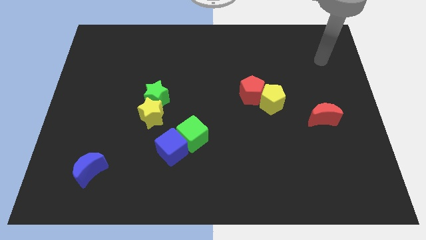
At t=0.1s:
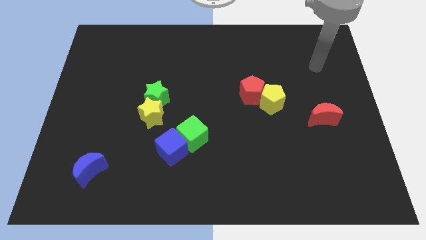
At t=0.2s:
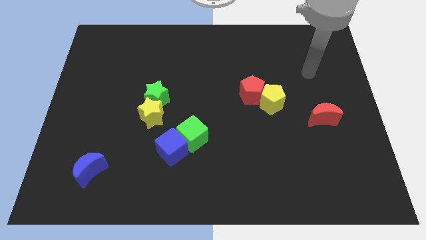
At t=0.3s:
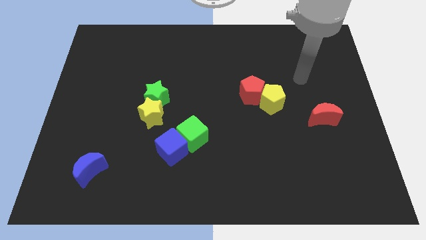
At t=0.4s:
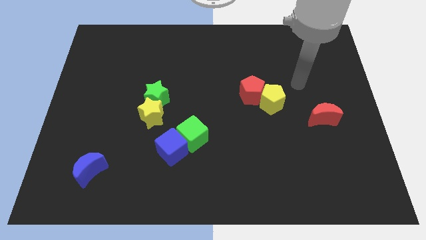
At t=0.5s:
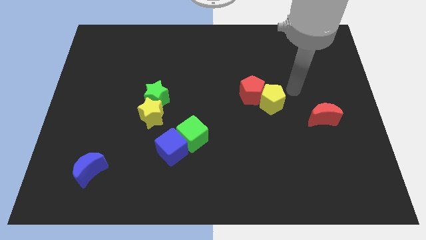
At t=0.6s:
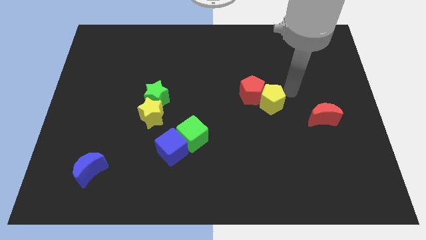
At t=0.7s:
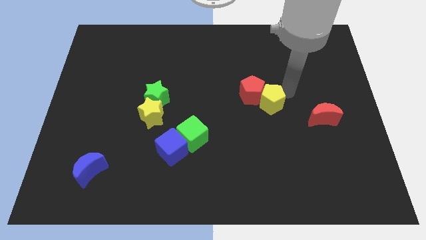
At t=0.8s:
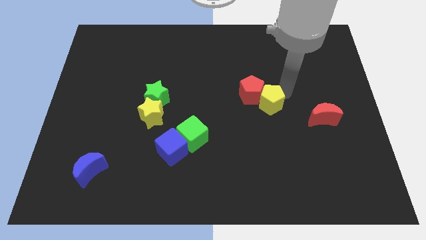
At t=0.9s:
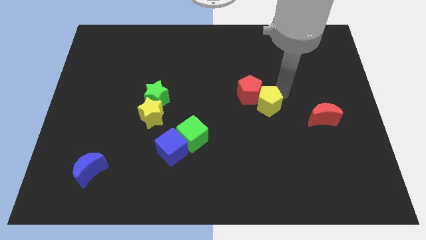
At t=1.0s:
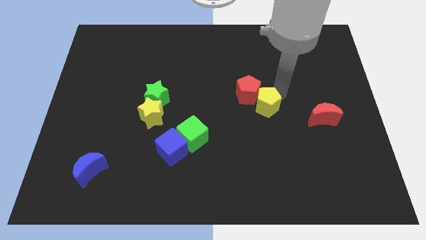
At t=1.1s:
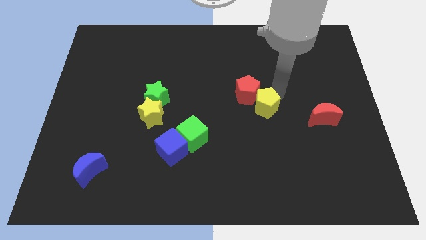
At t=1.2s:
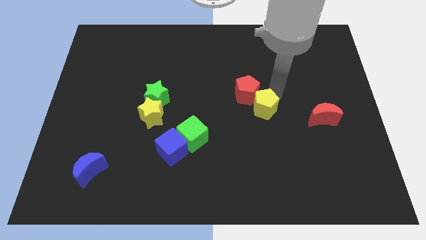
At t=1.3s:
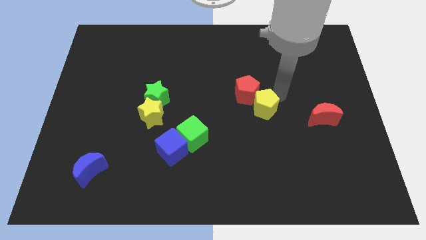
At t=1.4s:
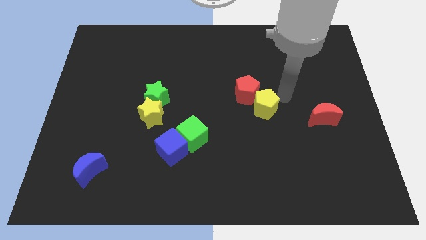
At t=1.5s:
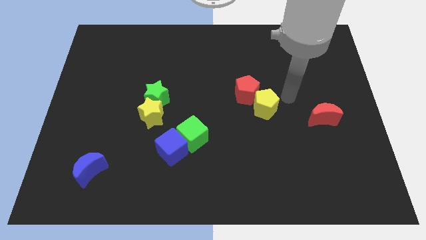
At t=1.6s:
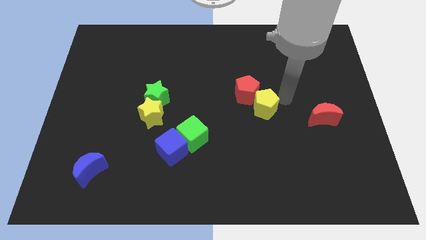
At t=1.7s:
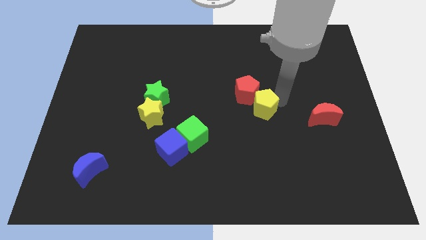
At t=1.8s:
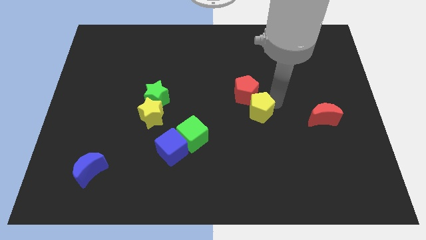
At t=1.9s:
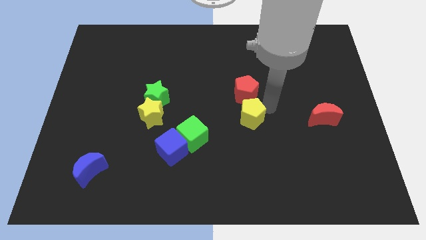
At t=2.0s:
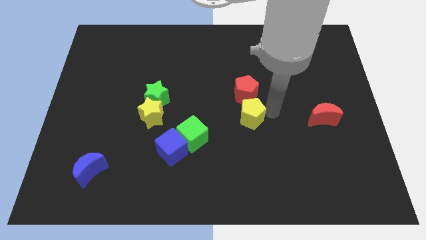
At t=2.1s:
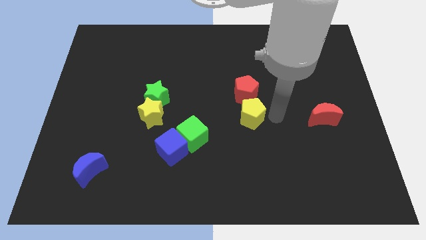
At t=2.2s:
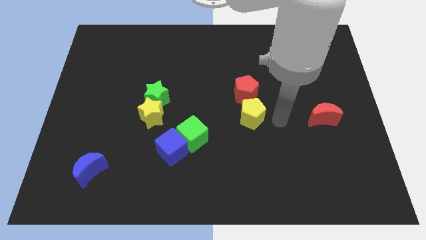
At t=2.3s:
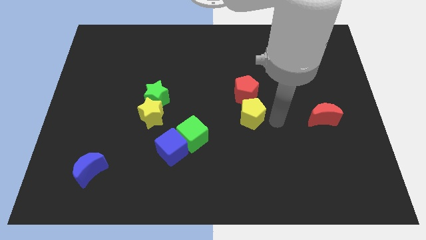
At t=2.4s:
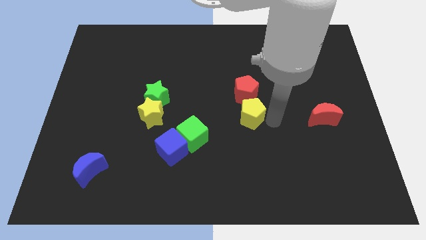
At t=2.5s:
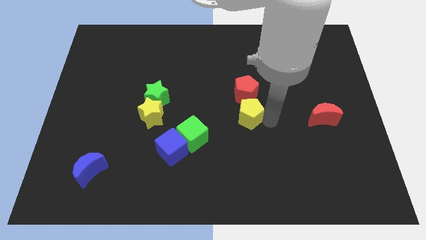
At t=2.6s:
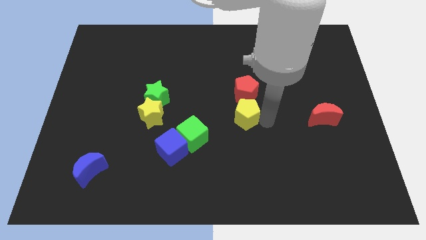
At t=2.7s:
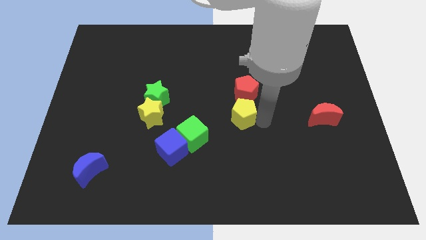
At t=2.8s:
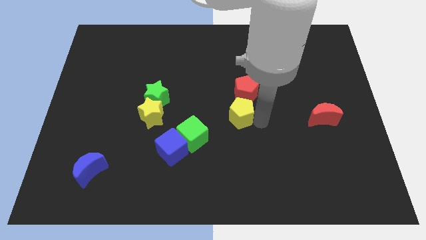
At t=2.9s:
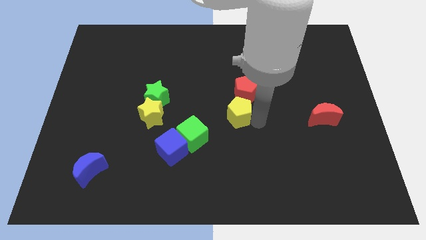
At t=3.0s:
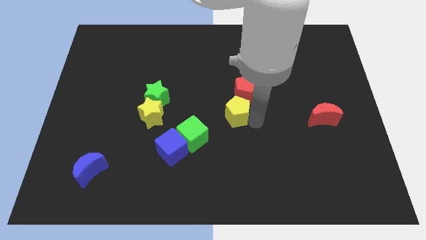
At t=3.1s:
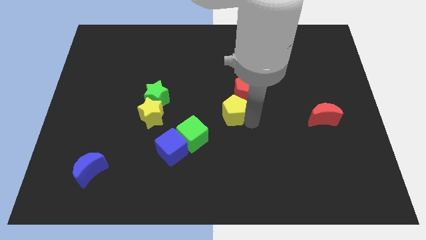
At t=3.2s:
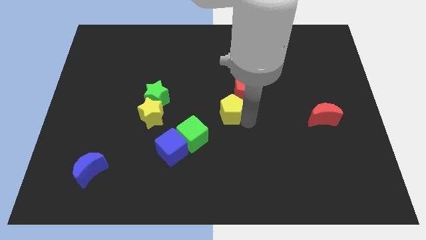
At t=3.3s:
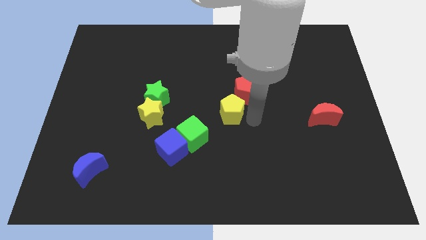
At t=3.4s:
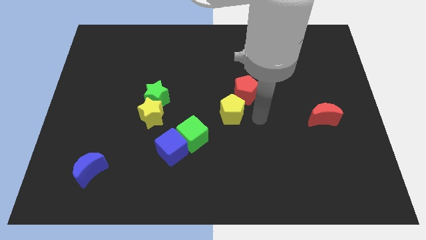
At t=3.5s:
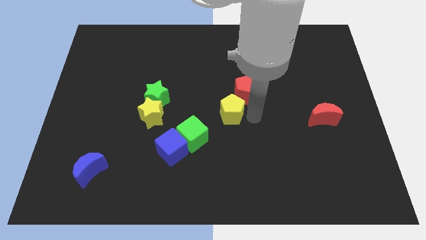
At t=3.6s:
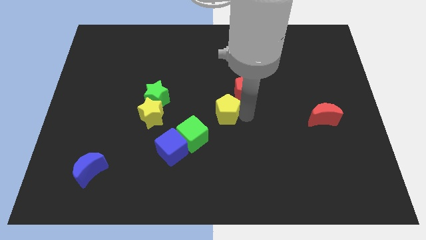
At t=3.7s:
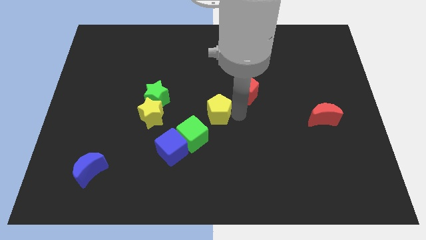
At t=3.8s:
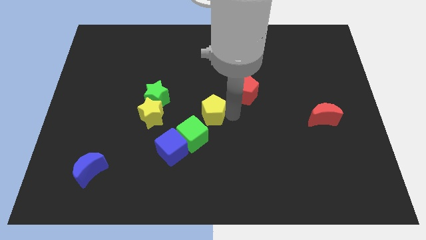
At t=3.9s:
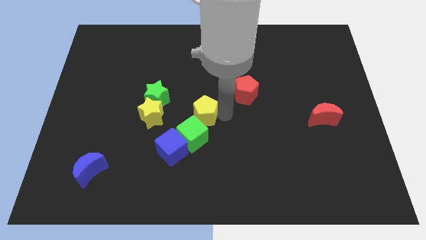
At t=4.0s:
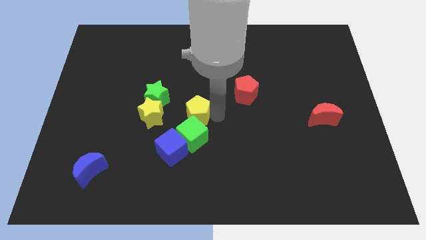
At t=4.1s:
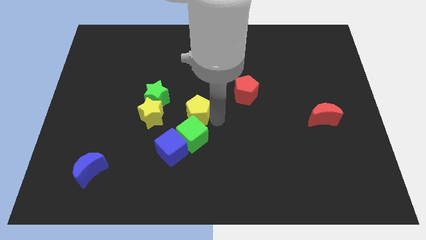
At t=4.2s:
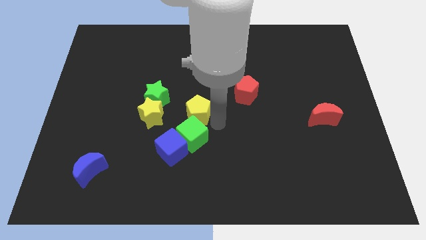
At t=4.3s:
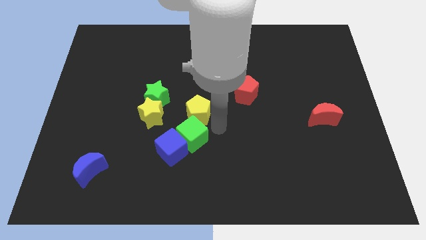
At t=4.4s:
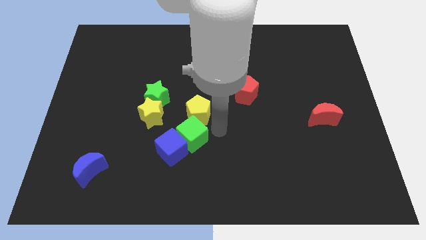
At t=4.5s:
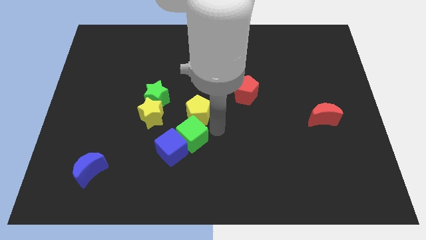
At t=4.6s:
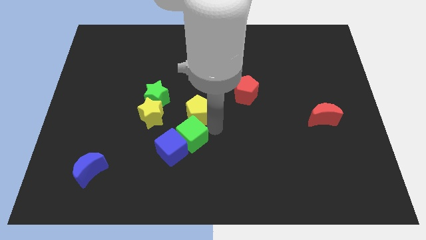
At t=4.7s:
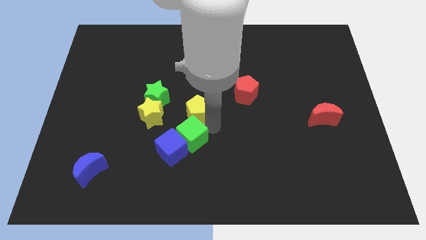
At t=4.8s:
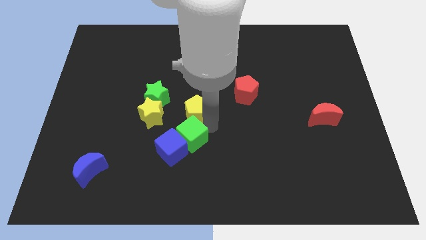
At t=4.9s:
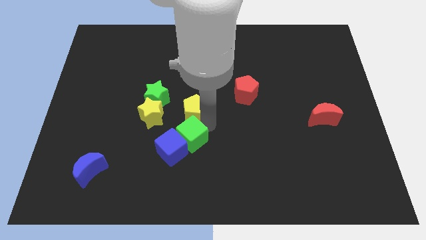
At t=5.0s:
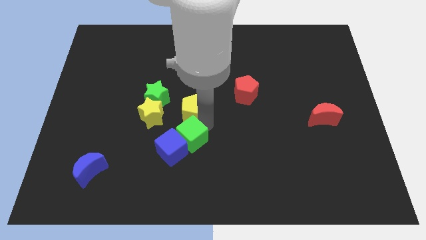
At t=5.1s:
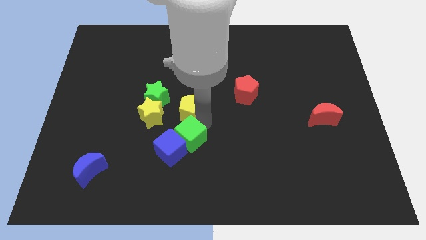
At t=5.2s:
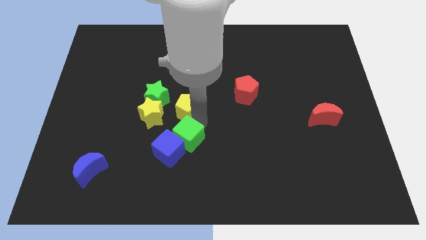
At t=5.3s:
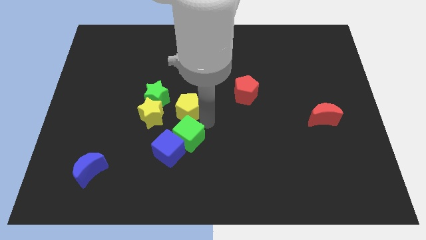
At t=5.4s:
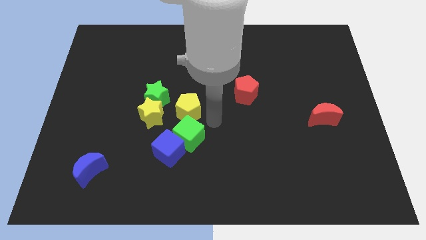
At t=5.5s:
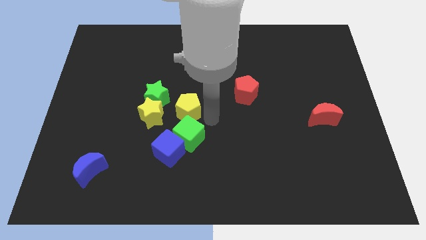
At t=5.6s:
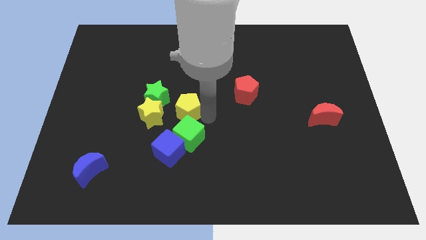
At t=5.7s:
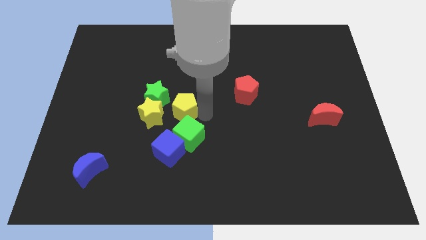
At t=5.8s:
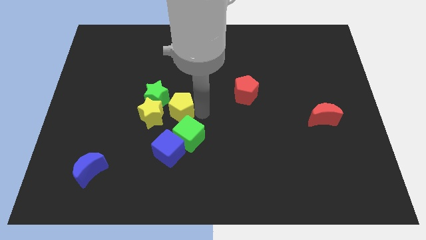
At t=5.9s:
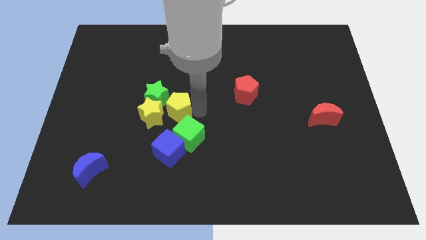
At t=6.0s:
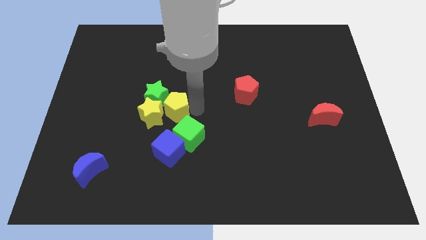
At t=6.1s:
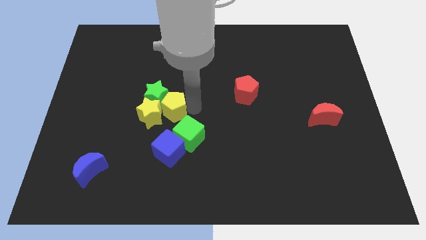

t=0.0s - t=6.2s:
push the yellow pentagon close to the green star

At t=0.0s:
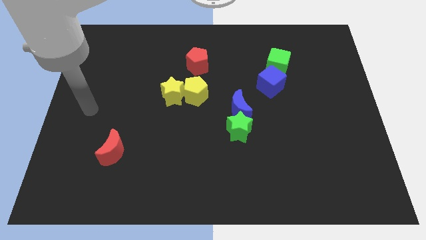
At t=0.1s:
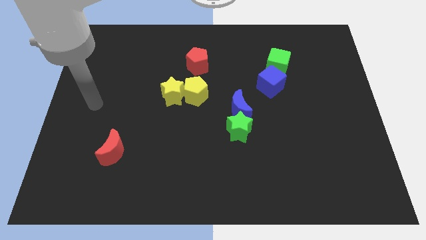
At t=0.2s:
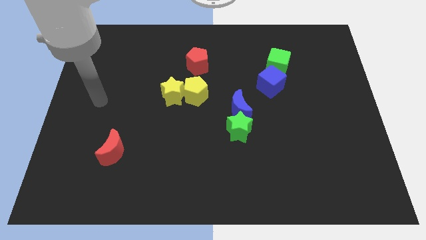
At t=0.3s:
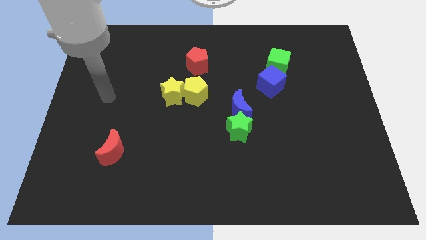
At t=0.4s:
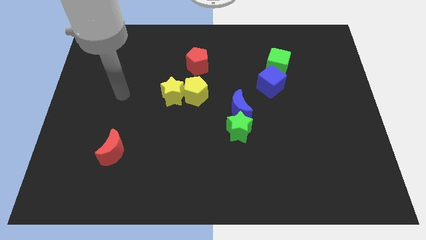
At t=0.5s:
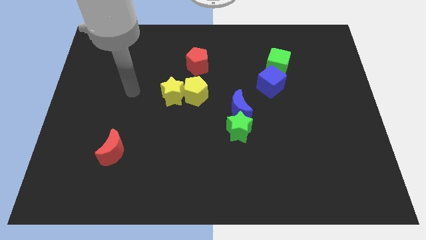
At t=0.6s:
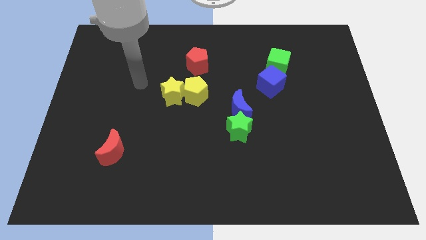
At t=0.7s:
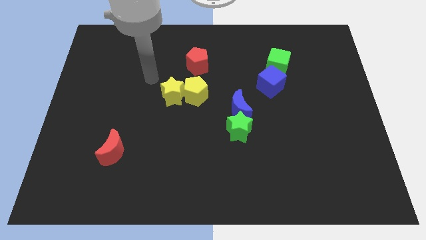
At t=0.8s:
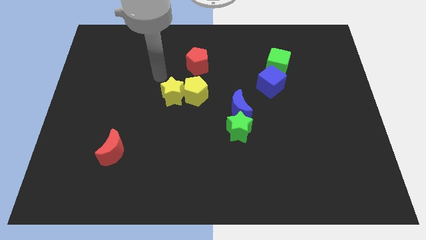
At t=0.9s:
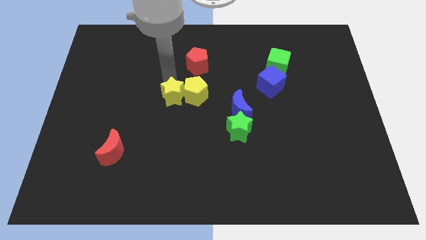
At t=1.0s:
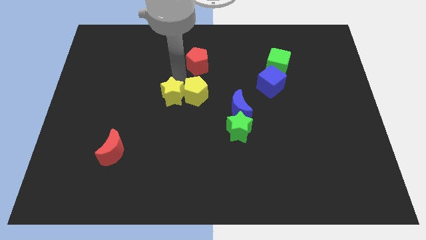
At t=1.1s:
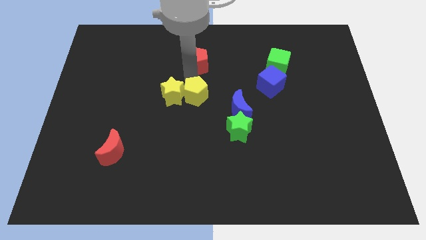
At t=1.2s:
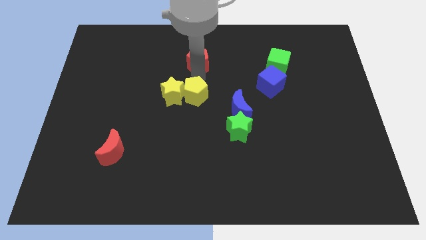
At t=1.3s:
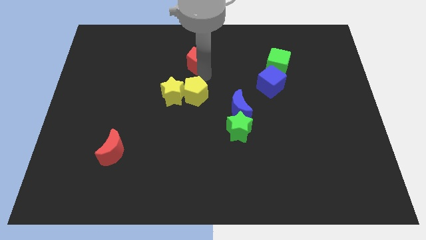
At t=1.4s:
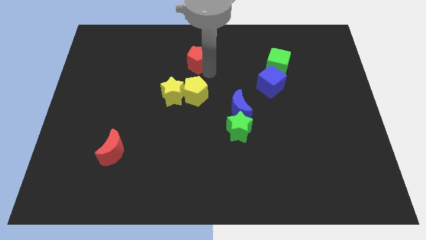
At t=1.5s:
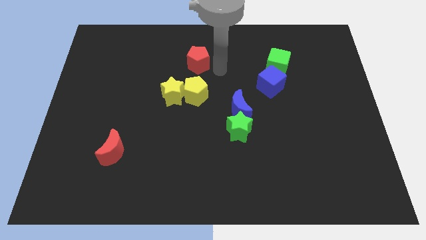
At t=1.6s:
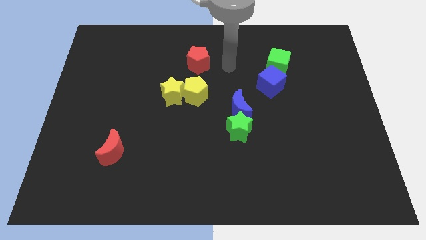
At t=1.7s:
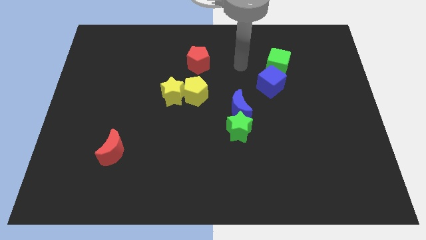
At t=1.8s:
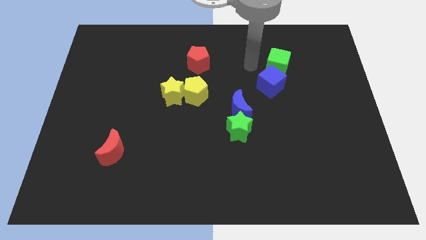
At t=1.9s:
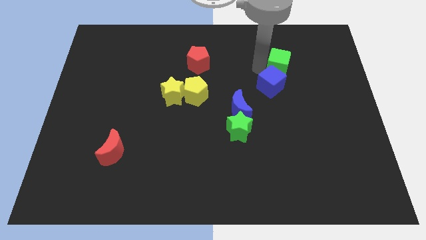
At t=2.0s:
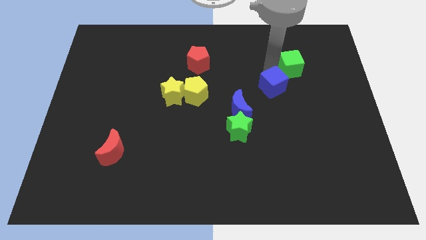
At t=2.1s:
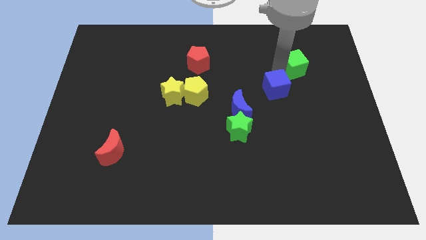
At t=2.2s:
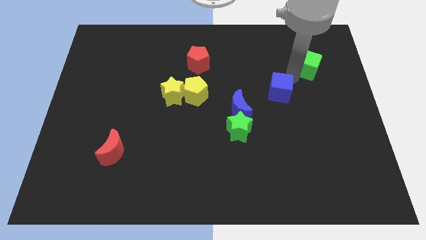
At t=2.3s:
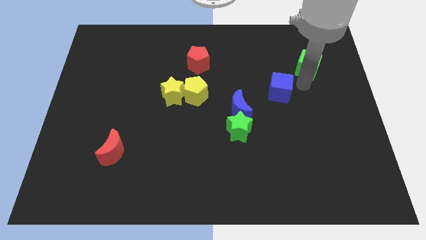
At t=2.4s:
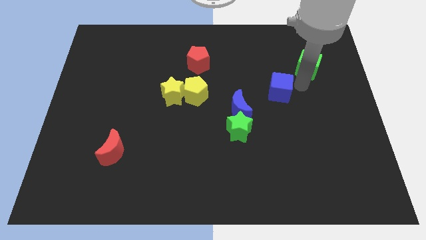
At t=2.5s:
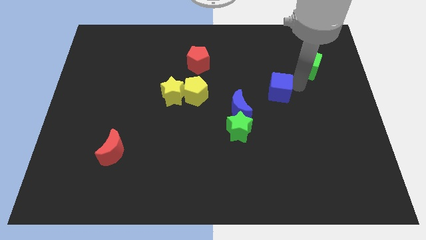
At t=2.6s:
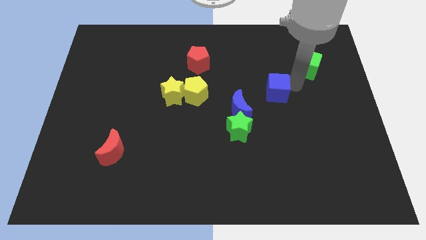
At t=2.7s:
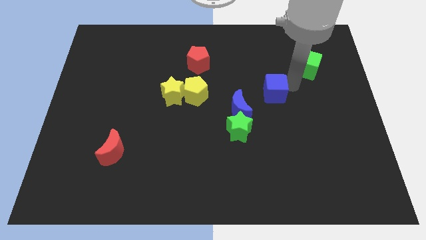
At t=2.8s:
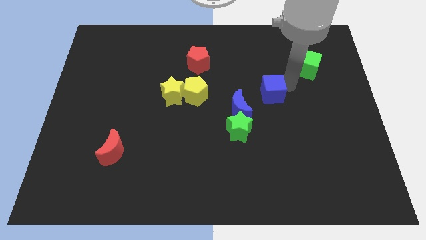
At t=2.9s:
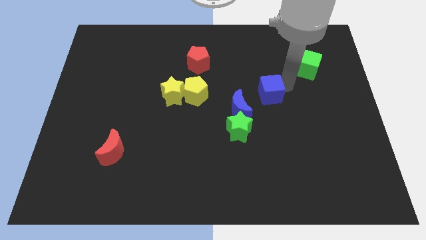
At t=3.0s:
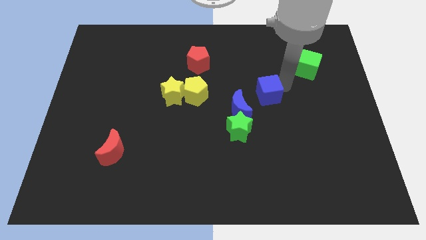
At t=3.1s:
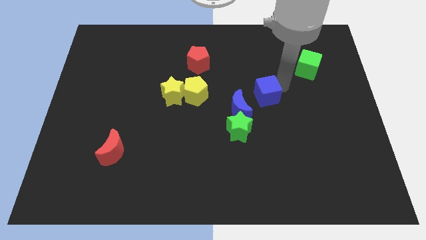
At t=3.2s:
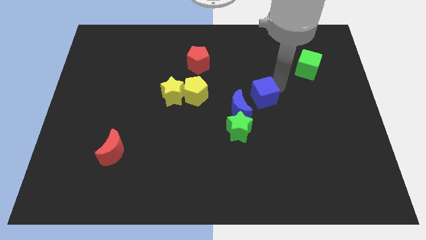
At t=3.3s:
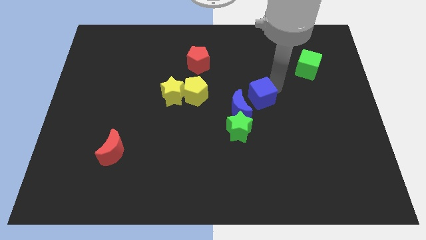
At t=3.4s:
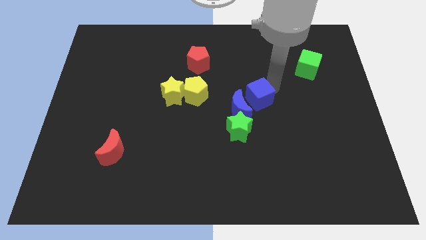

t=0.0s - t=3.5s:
put the blue cube towards the blue moon
